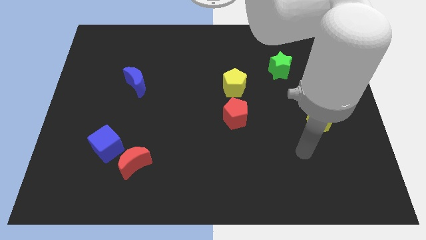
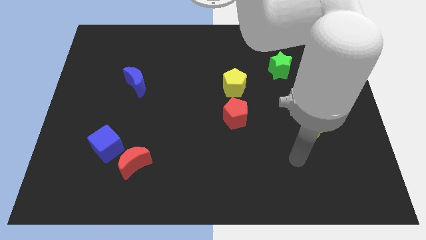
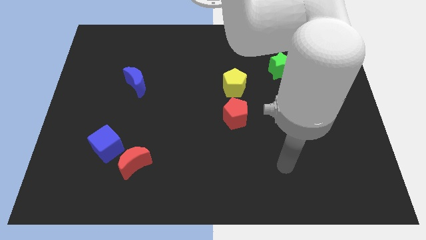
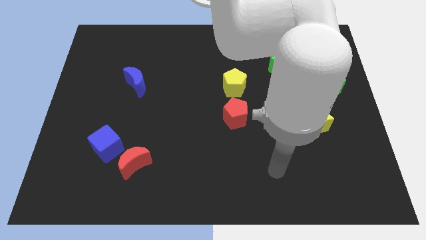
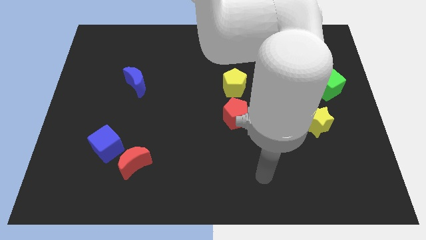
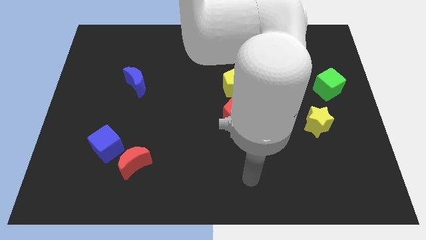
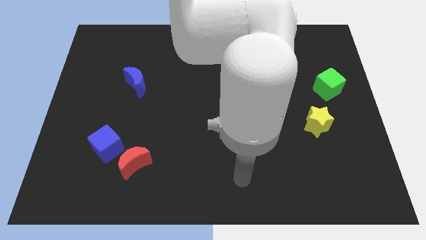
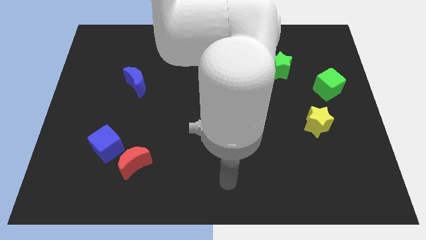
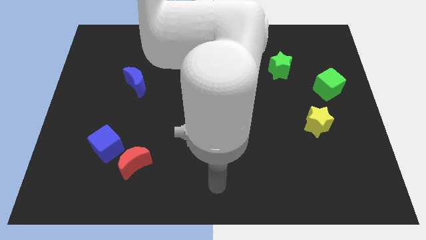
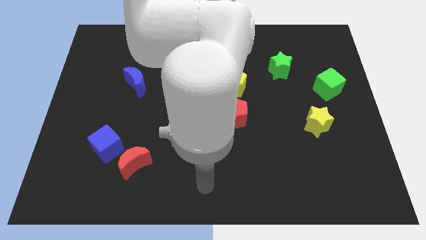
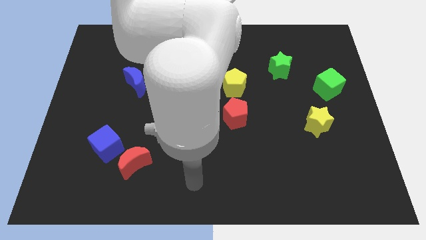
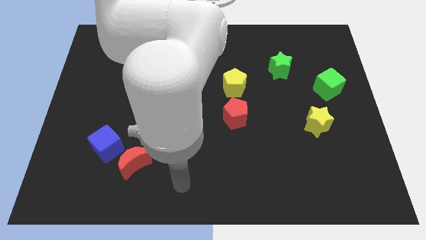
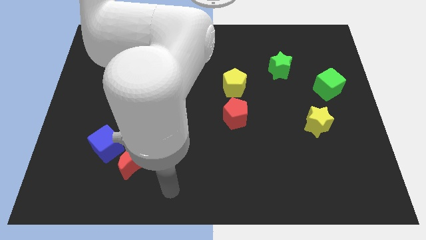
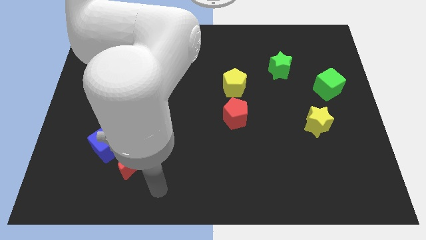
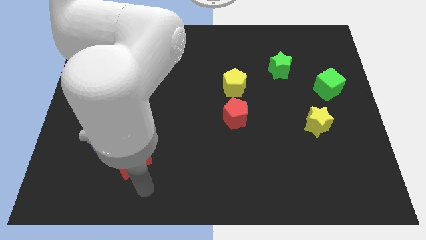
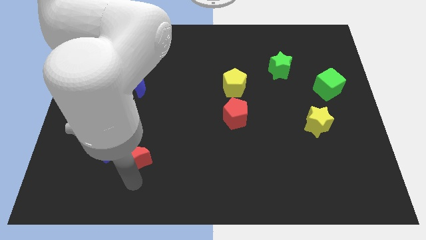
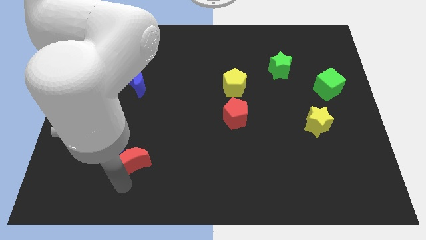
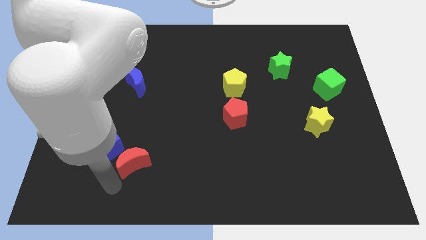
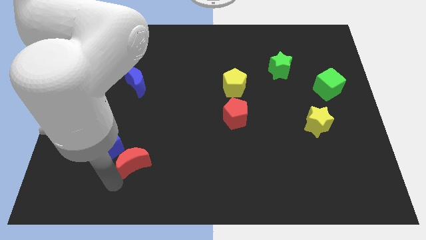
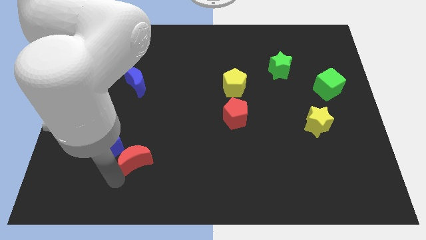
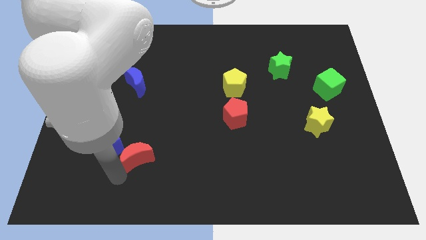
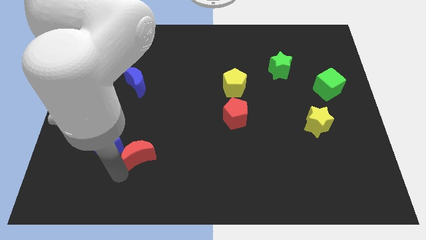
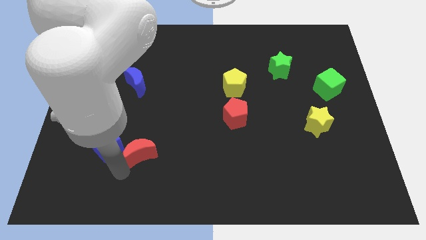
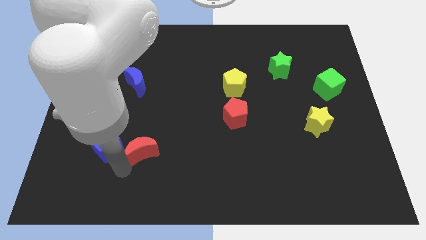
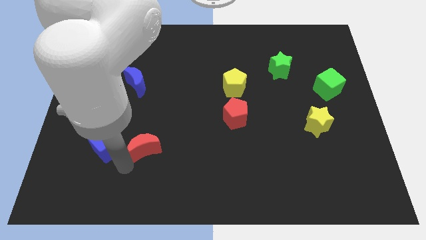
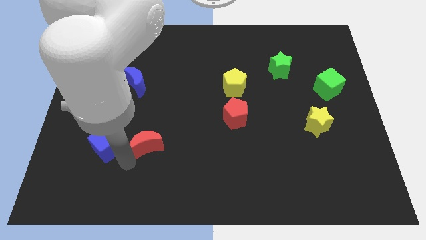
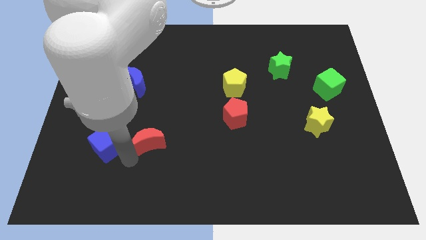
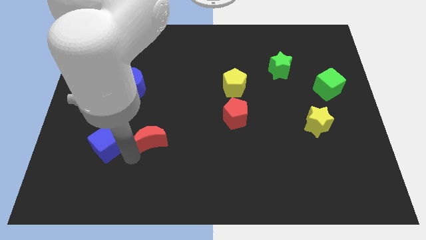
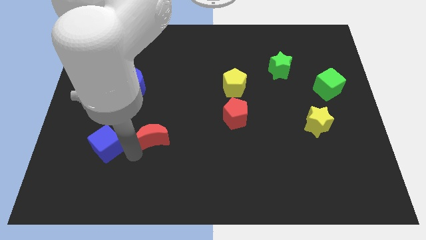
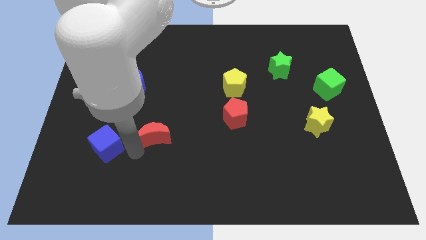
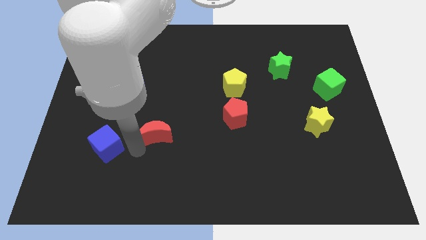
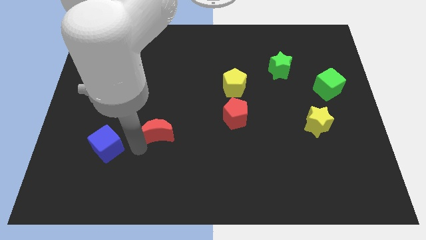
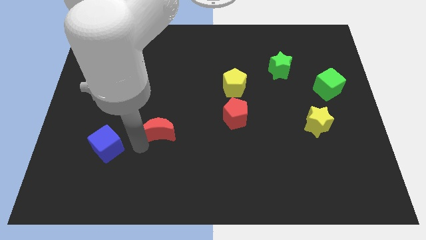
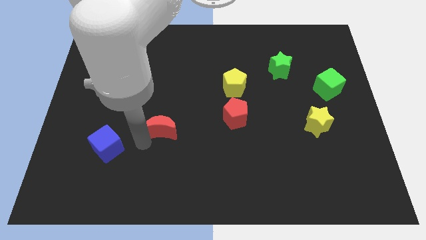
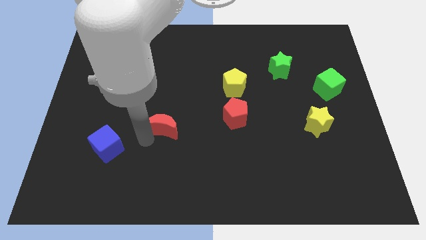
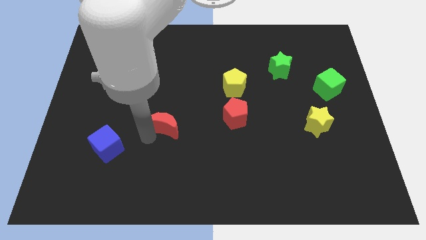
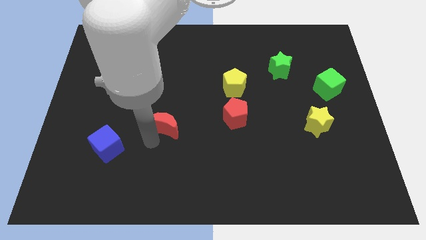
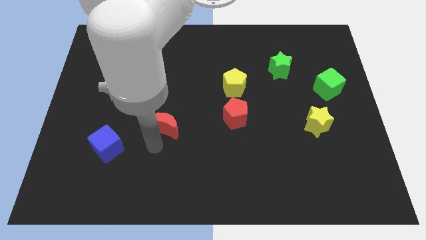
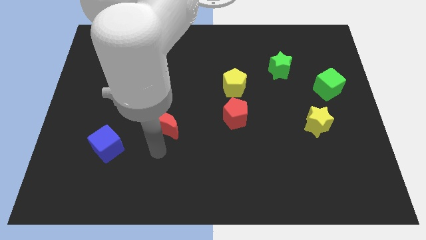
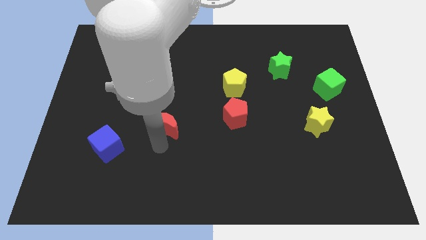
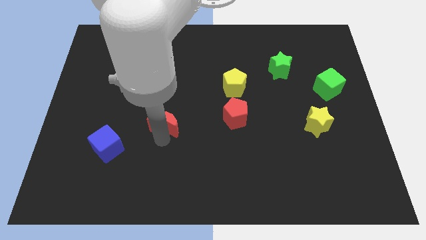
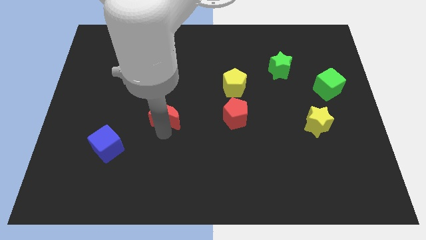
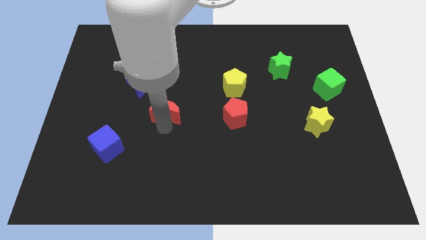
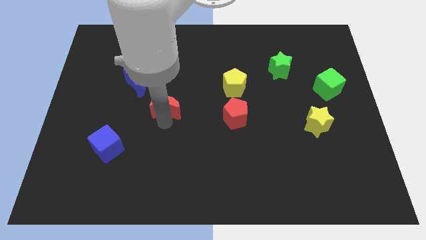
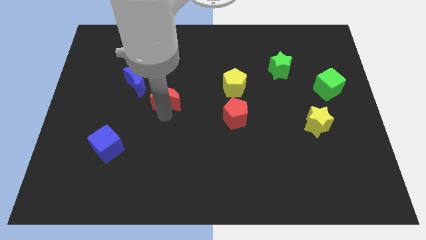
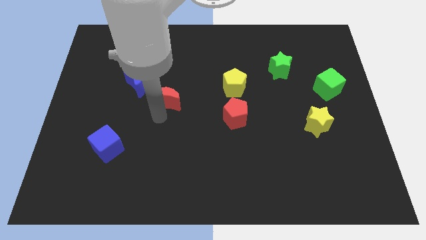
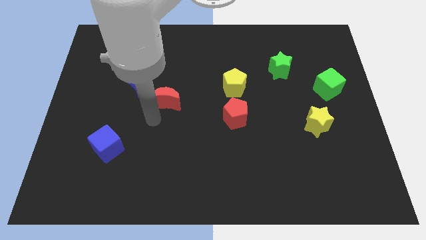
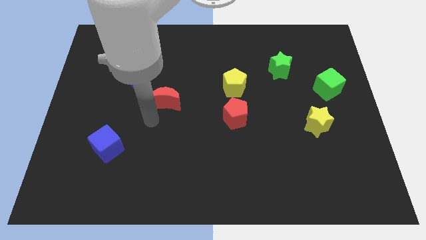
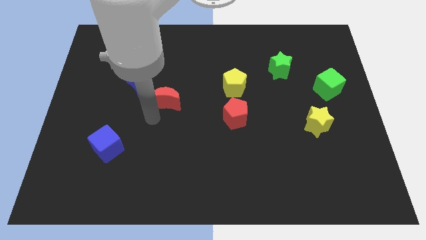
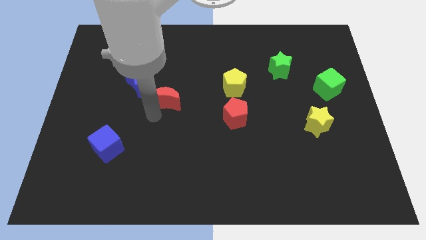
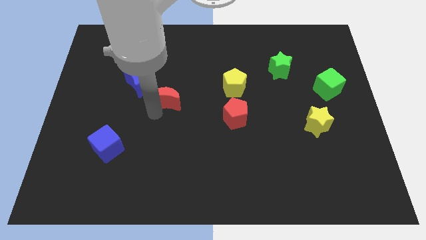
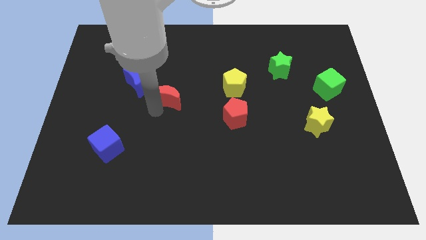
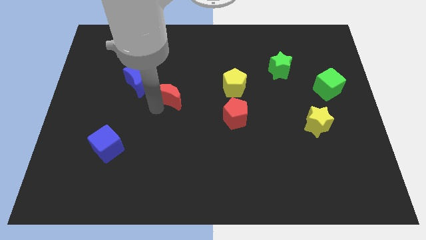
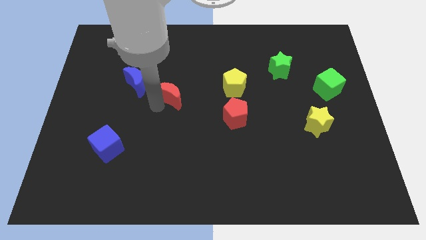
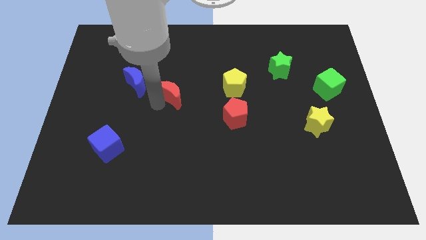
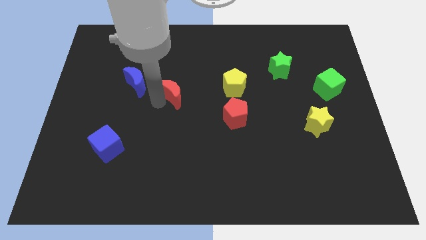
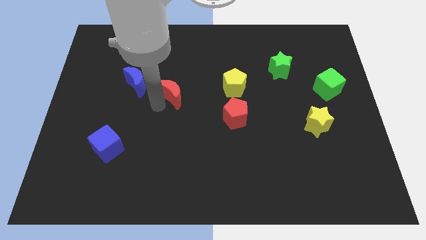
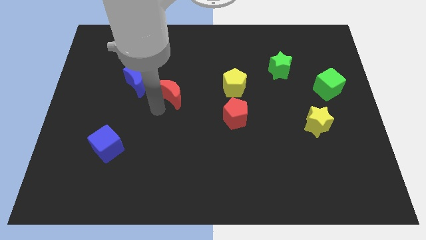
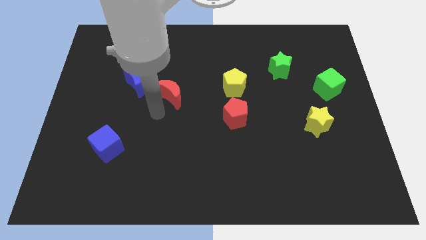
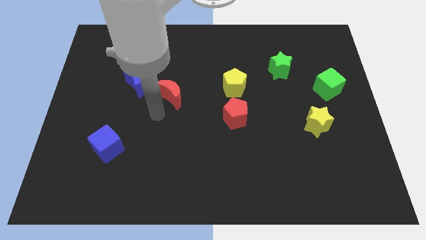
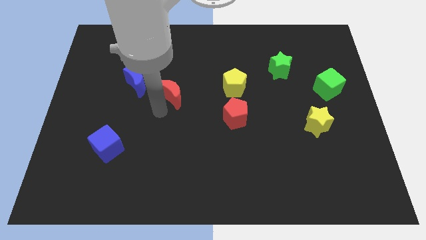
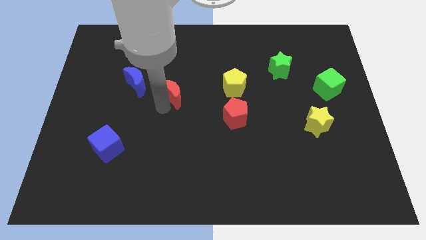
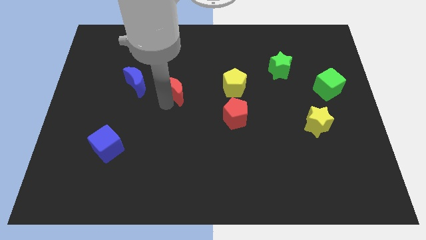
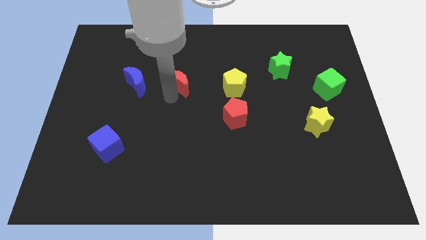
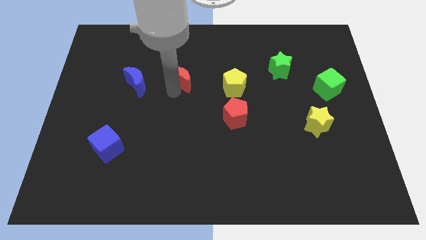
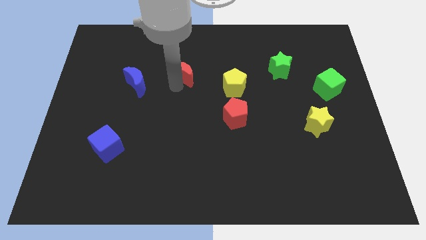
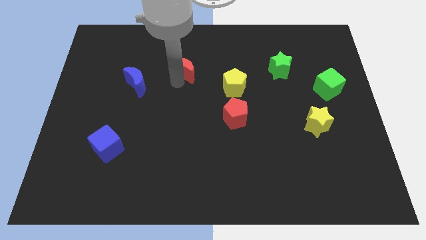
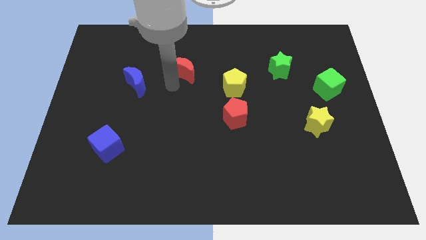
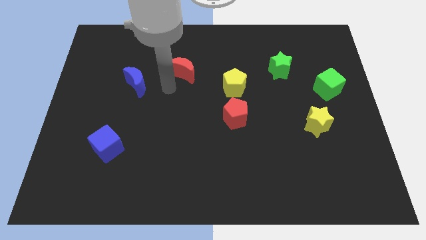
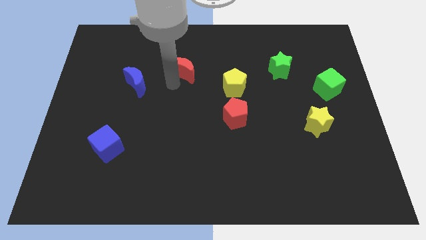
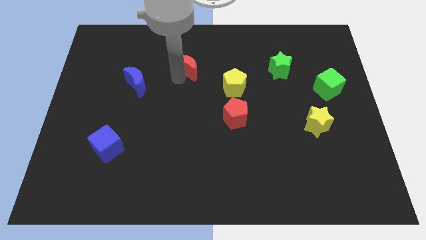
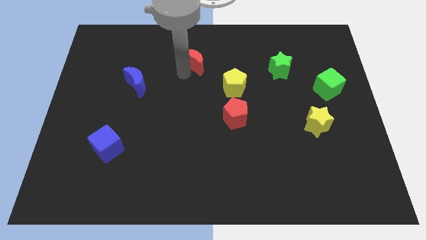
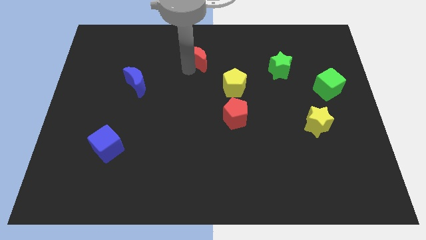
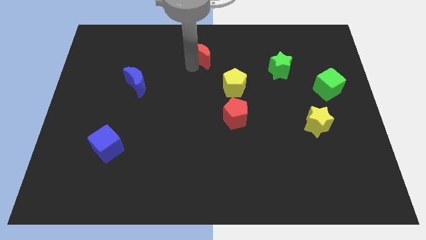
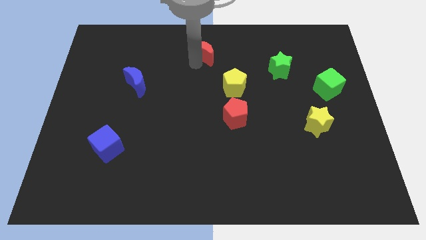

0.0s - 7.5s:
push the red moon to the towards your base
